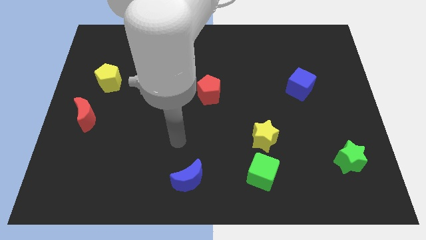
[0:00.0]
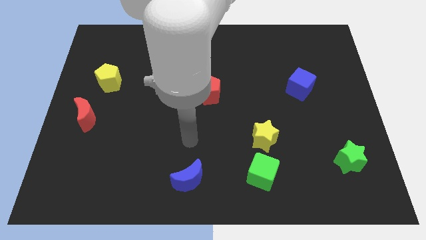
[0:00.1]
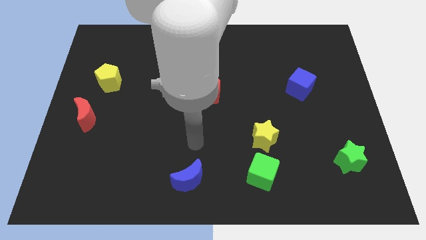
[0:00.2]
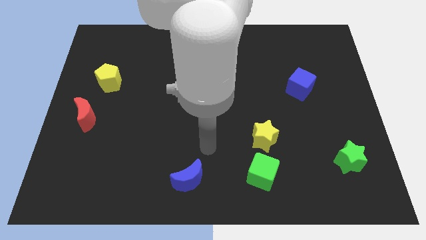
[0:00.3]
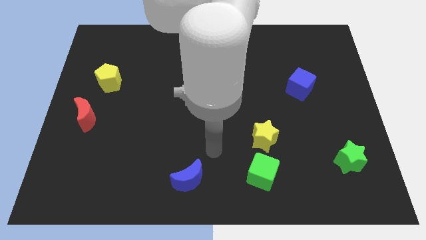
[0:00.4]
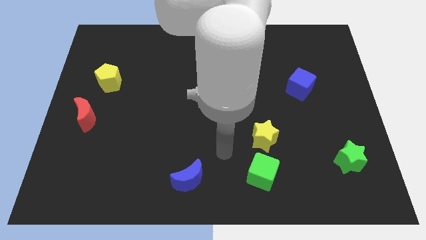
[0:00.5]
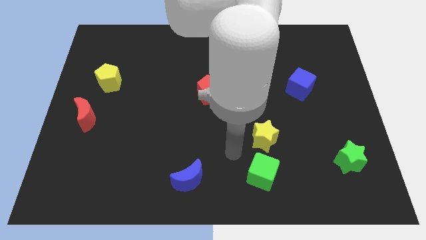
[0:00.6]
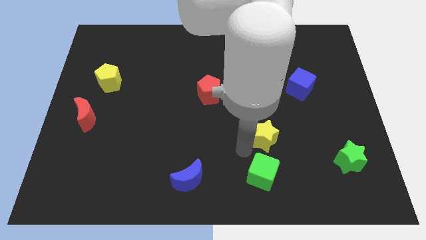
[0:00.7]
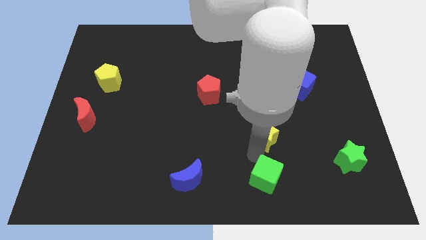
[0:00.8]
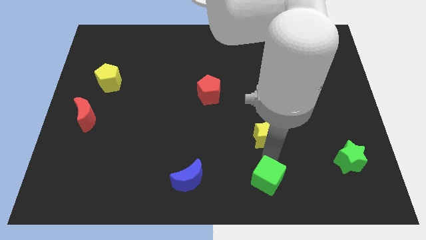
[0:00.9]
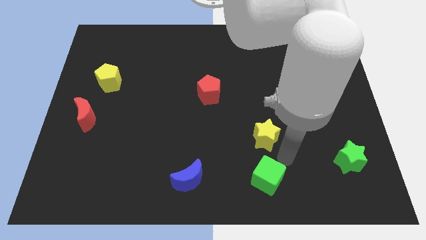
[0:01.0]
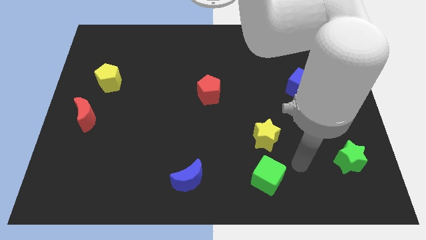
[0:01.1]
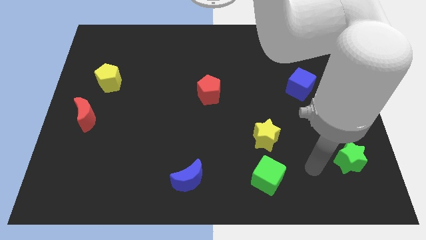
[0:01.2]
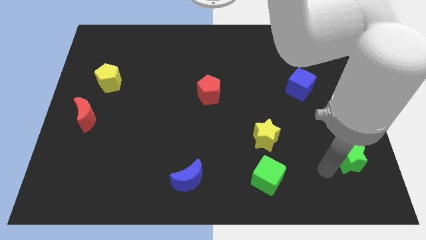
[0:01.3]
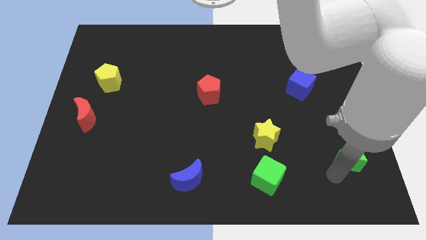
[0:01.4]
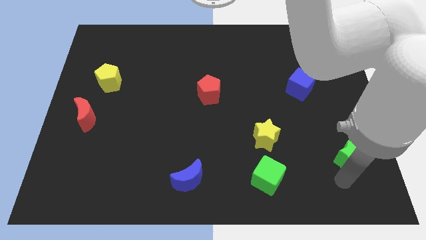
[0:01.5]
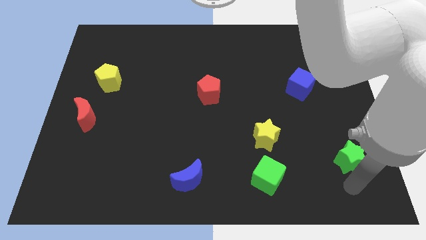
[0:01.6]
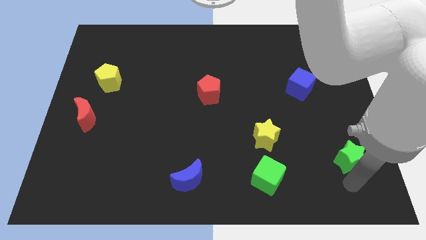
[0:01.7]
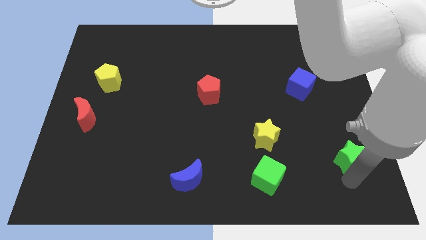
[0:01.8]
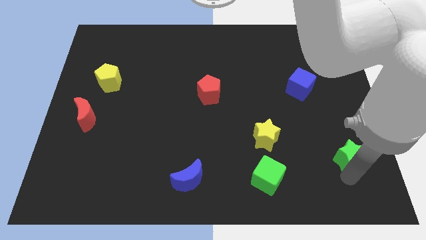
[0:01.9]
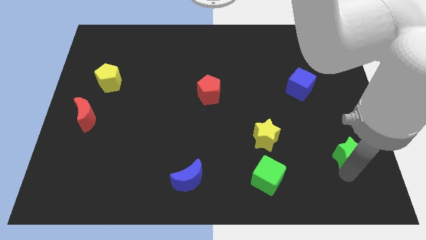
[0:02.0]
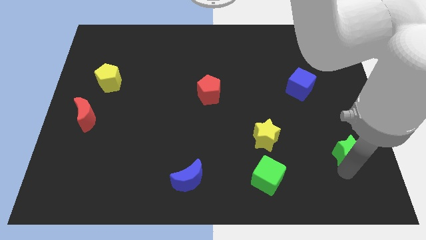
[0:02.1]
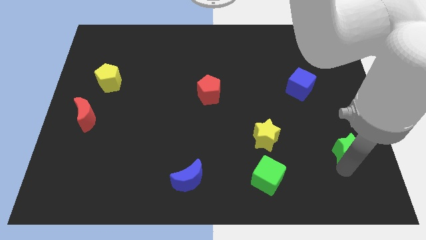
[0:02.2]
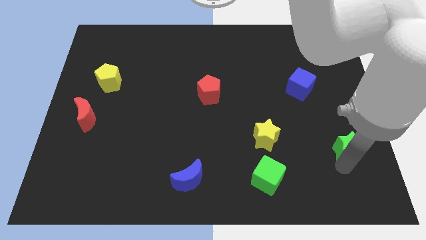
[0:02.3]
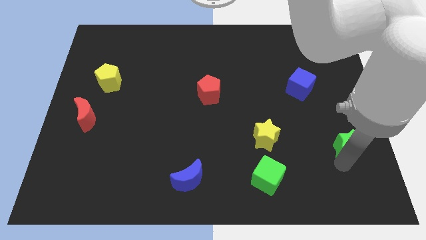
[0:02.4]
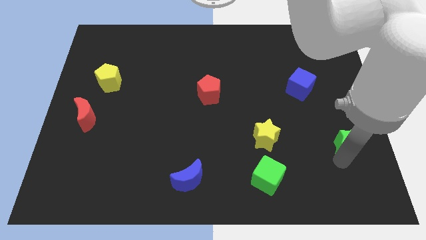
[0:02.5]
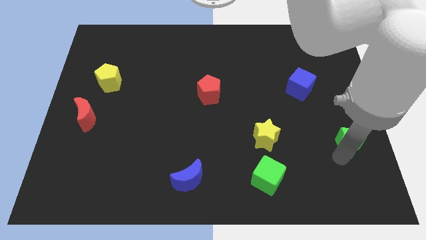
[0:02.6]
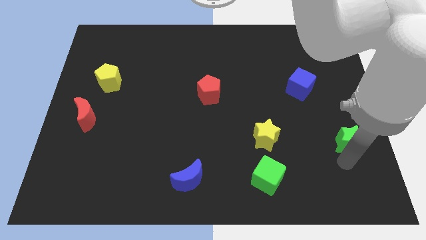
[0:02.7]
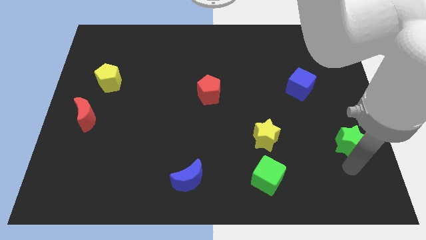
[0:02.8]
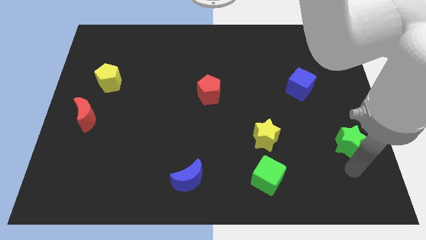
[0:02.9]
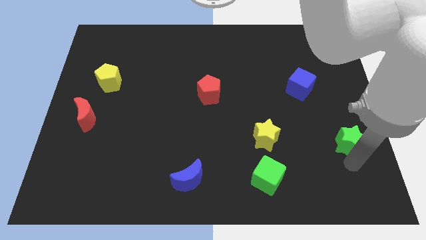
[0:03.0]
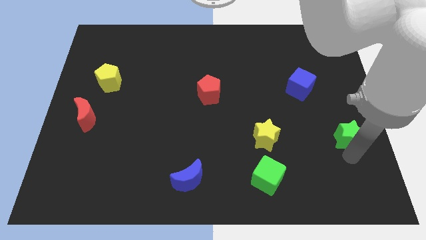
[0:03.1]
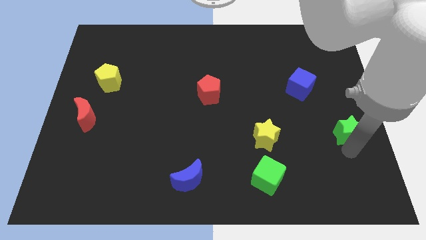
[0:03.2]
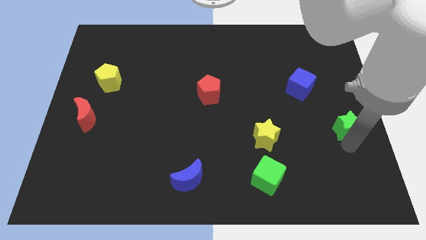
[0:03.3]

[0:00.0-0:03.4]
slightly slide the green star upwards

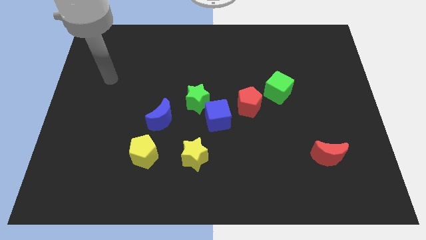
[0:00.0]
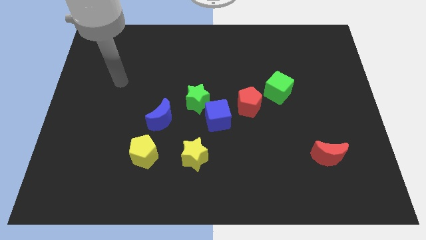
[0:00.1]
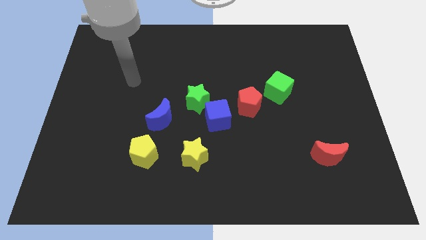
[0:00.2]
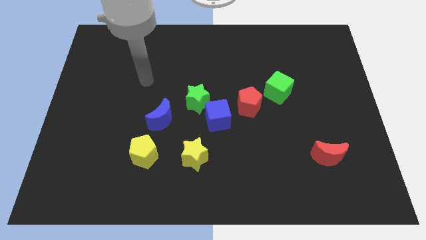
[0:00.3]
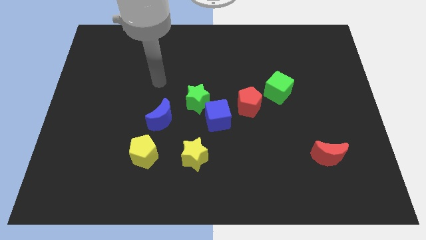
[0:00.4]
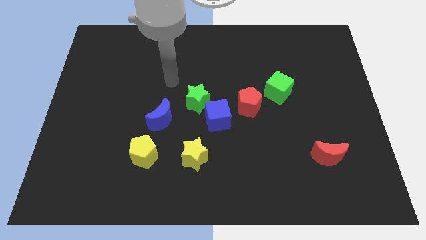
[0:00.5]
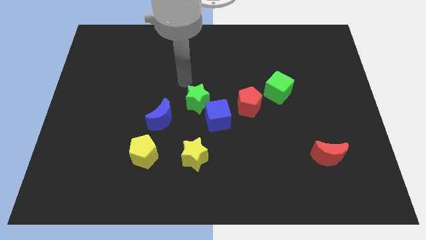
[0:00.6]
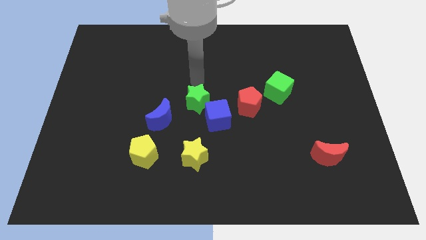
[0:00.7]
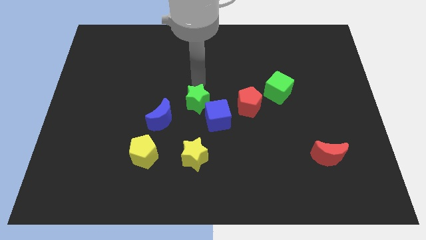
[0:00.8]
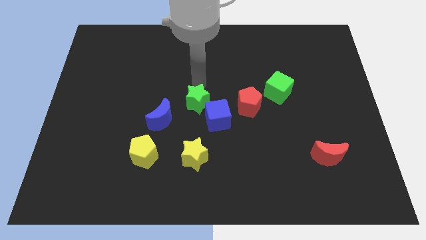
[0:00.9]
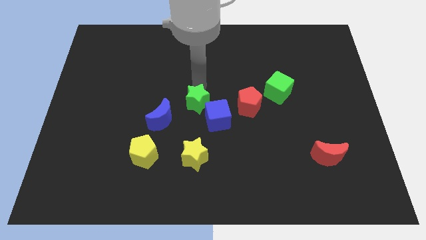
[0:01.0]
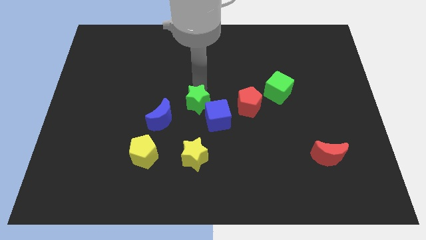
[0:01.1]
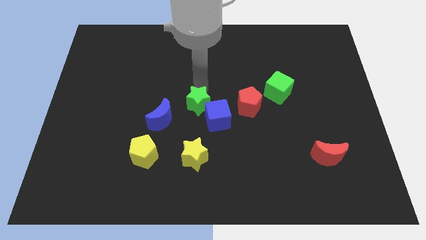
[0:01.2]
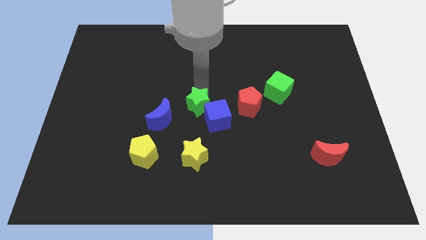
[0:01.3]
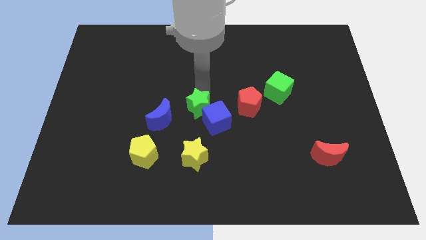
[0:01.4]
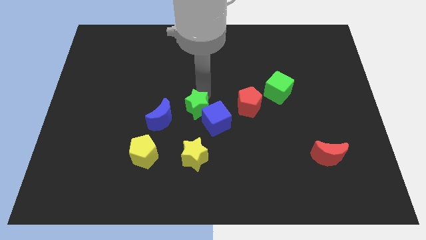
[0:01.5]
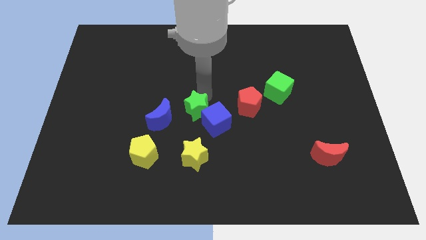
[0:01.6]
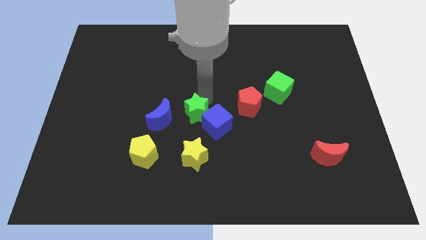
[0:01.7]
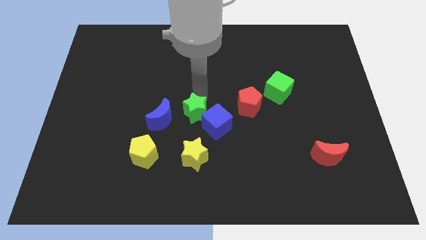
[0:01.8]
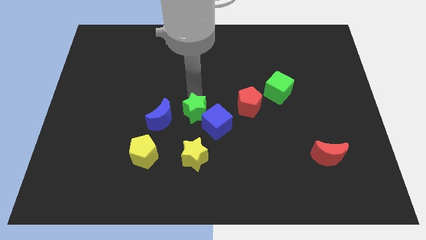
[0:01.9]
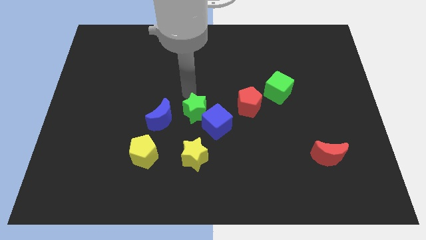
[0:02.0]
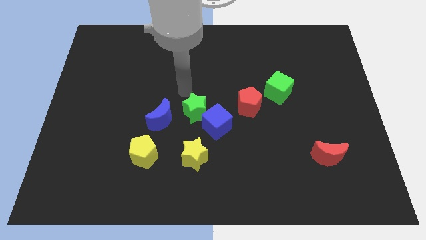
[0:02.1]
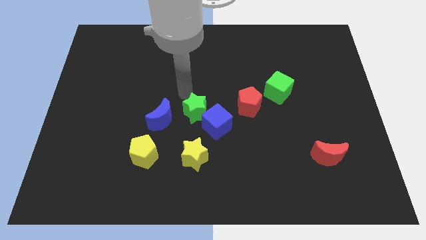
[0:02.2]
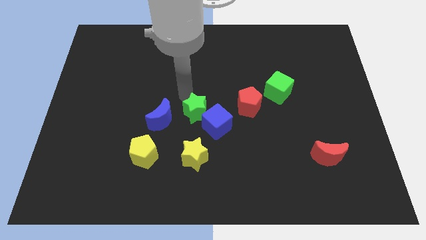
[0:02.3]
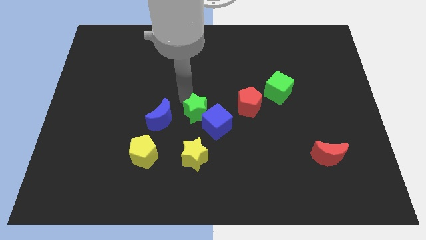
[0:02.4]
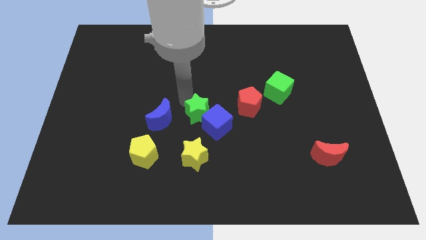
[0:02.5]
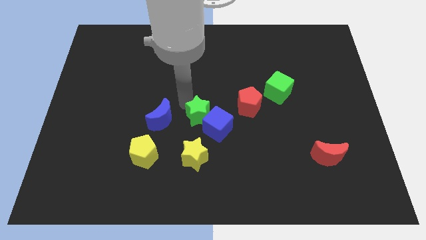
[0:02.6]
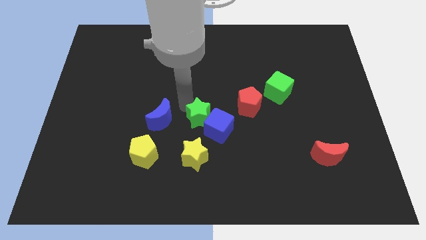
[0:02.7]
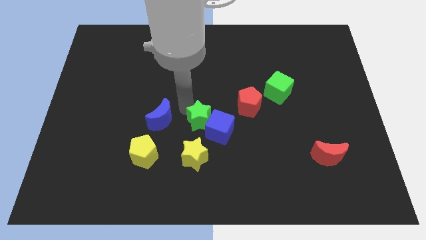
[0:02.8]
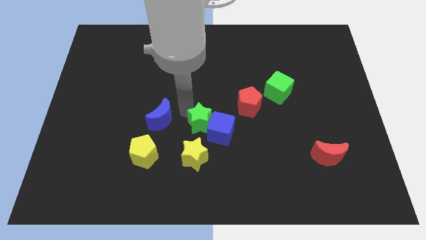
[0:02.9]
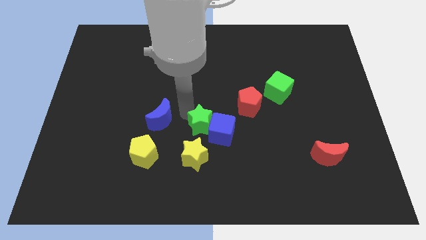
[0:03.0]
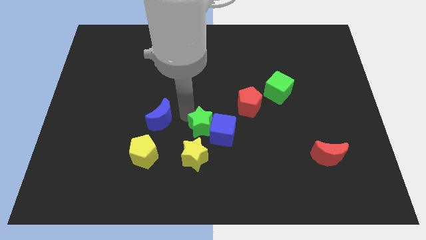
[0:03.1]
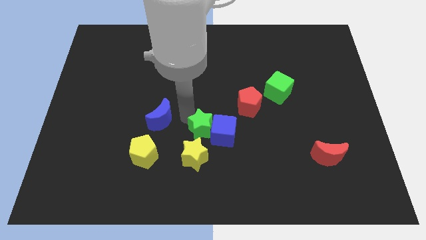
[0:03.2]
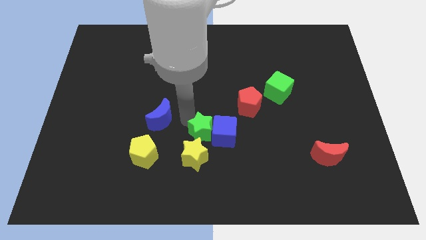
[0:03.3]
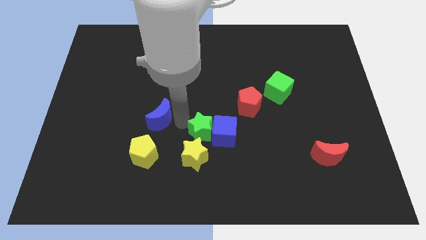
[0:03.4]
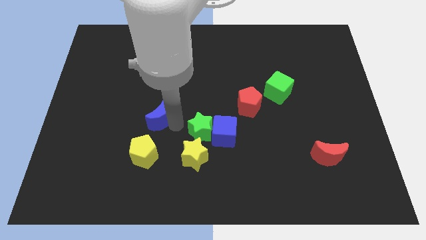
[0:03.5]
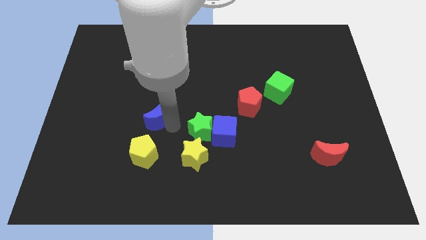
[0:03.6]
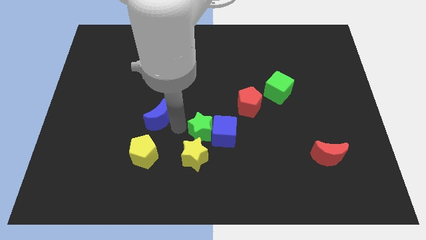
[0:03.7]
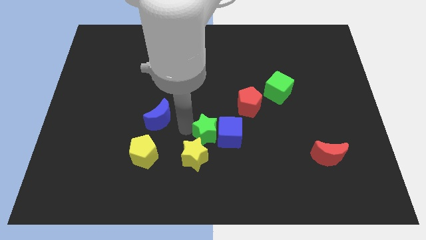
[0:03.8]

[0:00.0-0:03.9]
push the green star down and right slightly

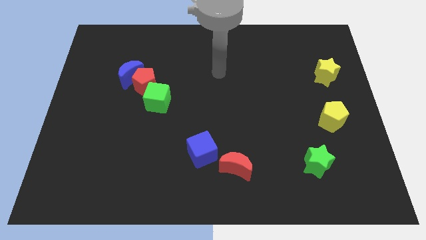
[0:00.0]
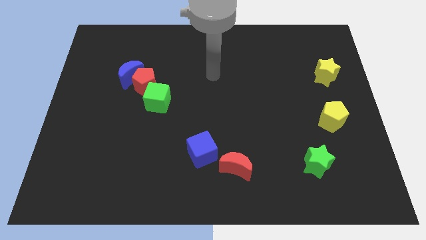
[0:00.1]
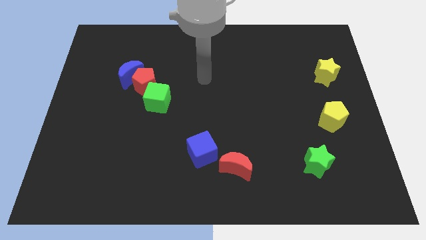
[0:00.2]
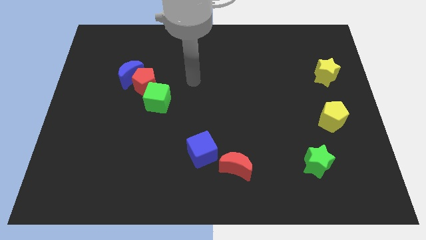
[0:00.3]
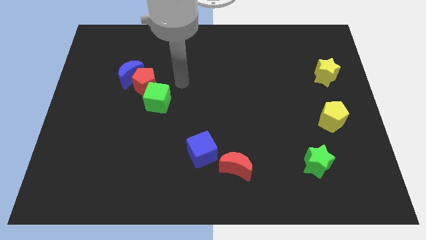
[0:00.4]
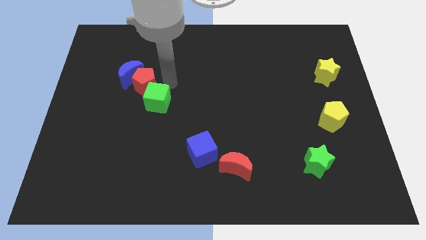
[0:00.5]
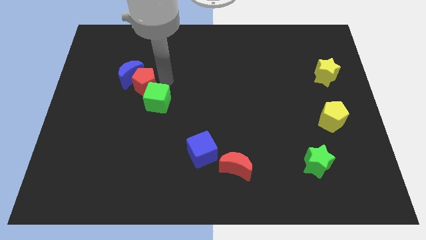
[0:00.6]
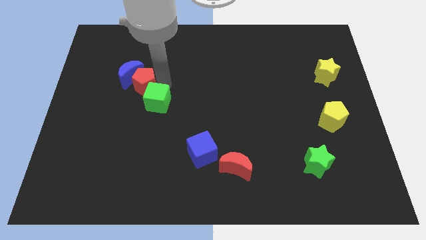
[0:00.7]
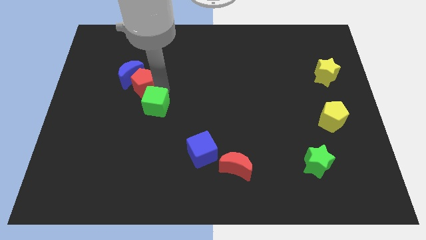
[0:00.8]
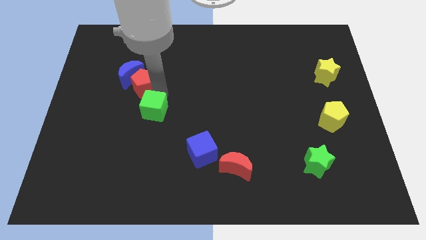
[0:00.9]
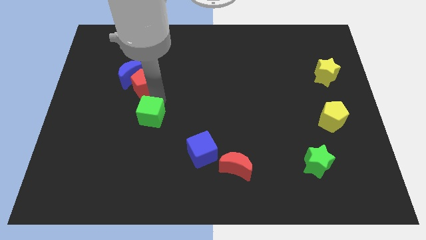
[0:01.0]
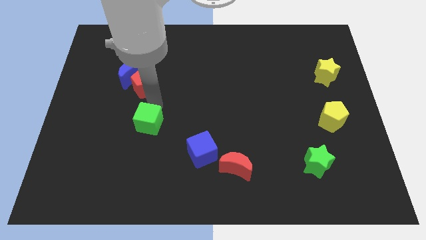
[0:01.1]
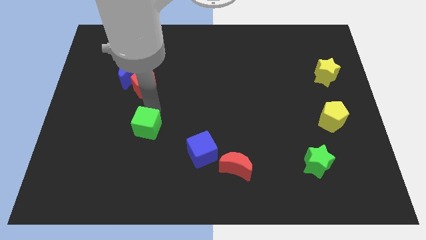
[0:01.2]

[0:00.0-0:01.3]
slightly move the green cube down
